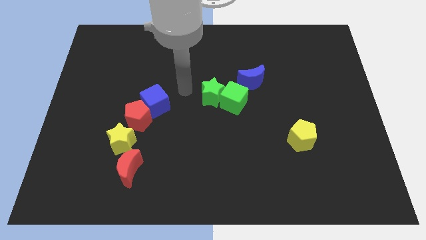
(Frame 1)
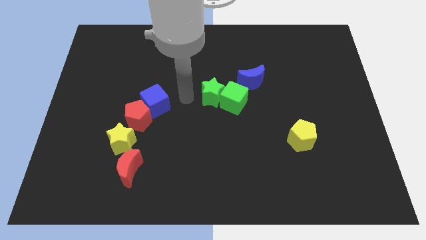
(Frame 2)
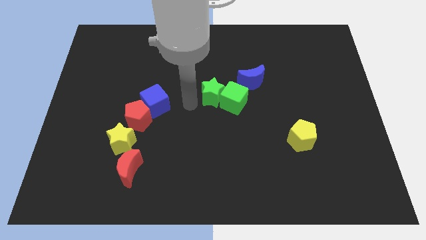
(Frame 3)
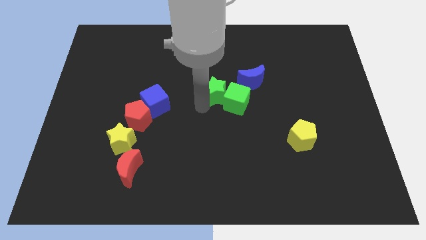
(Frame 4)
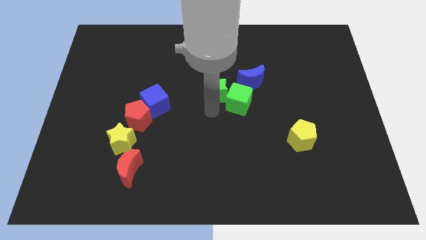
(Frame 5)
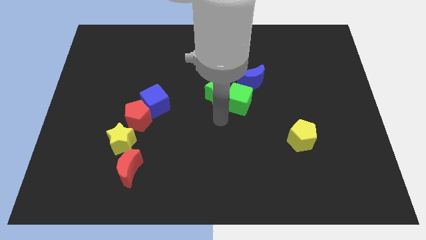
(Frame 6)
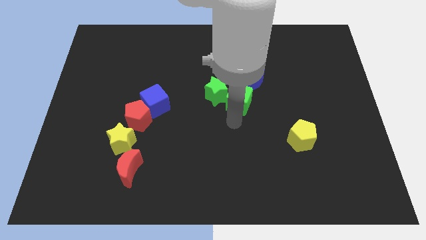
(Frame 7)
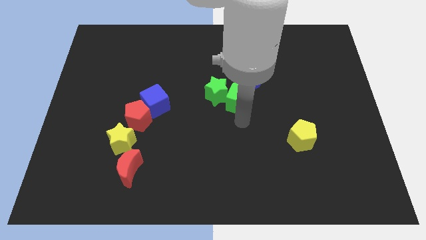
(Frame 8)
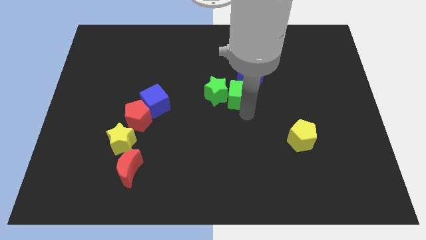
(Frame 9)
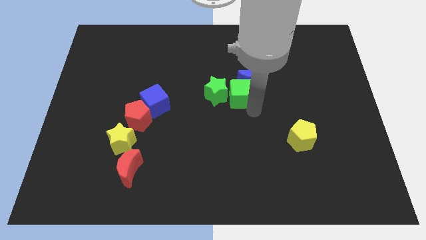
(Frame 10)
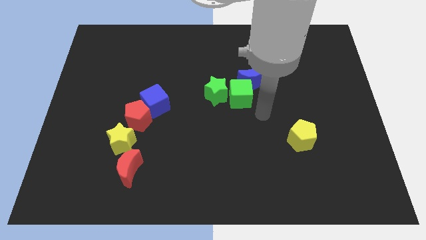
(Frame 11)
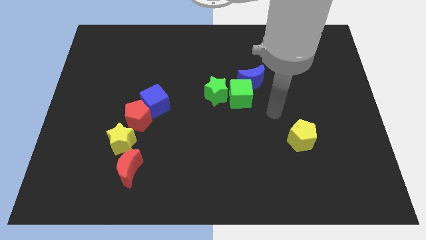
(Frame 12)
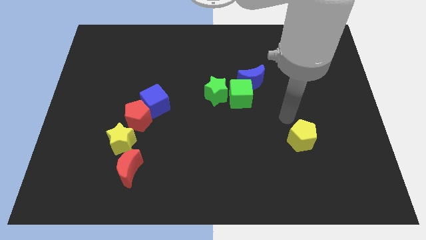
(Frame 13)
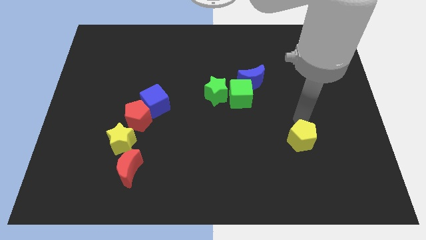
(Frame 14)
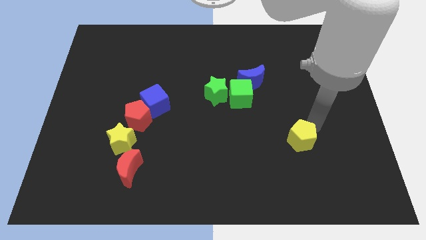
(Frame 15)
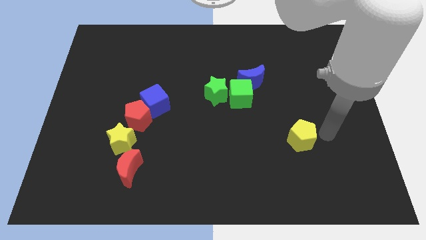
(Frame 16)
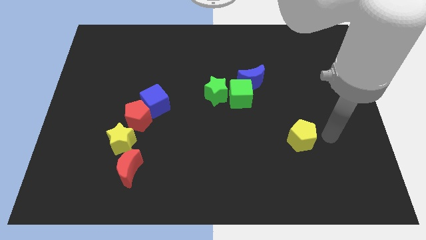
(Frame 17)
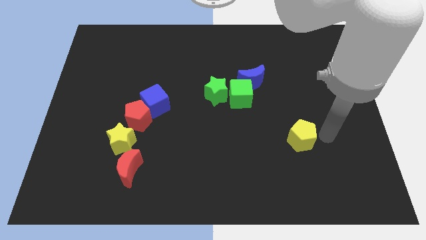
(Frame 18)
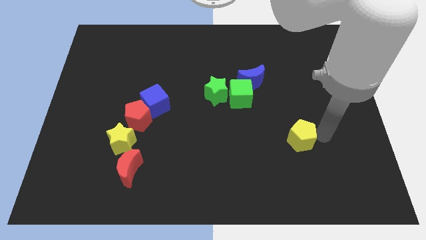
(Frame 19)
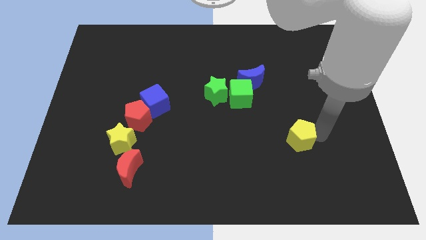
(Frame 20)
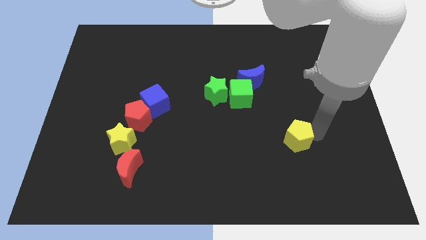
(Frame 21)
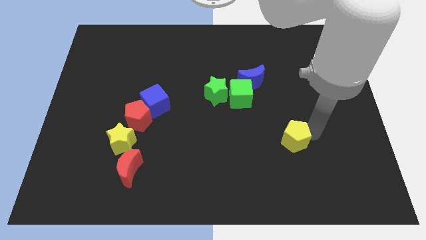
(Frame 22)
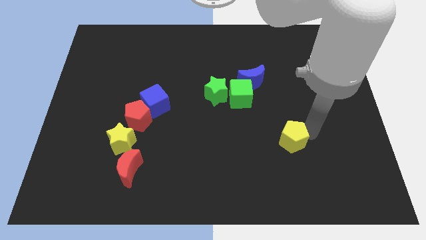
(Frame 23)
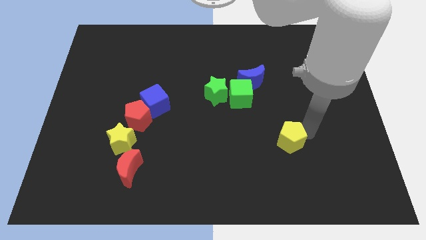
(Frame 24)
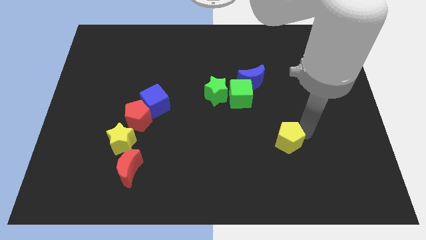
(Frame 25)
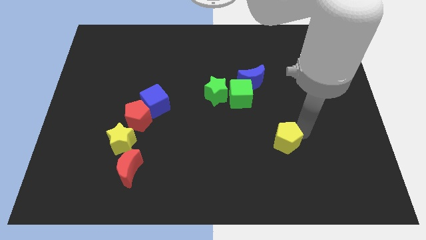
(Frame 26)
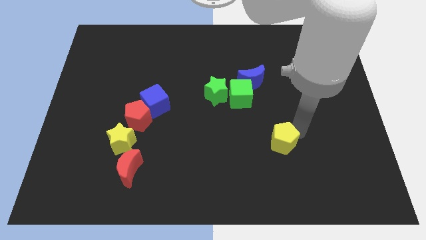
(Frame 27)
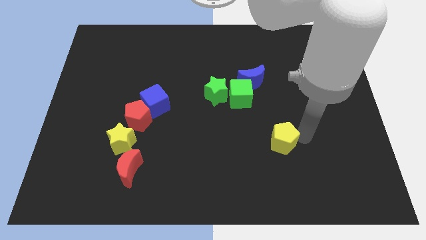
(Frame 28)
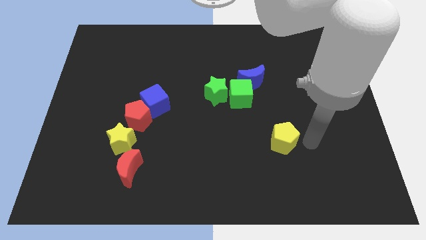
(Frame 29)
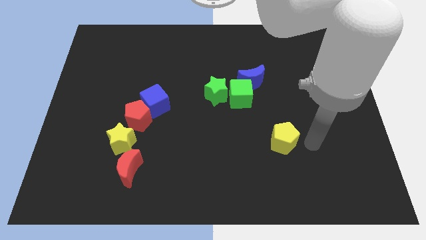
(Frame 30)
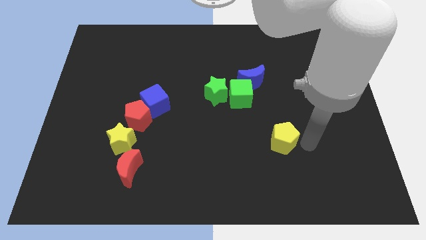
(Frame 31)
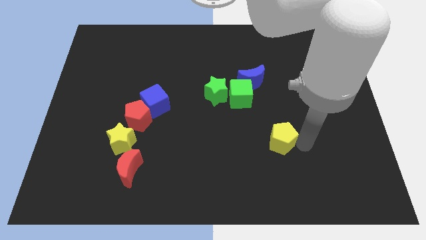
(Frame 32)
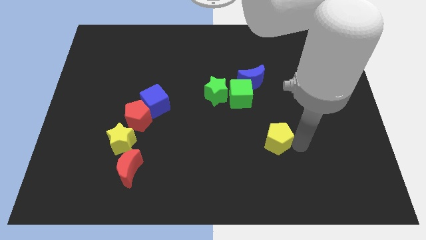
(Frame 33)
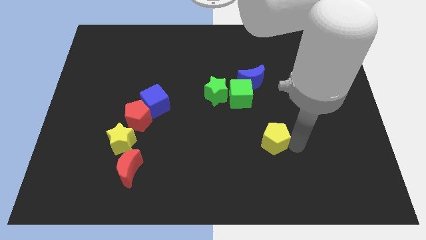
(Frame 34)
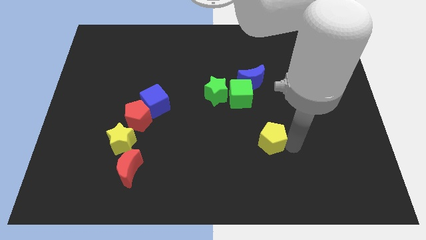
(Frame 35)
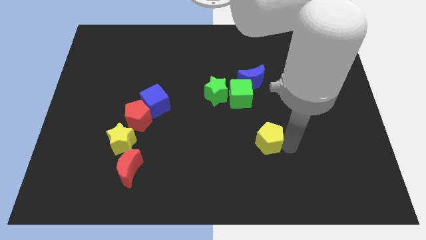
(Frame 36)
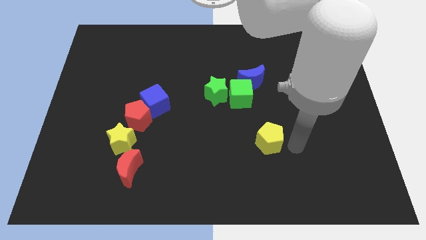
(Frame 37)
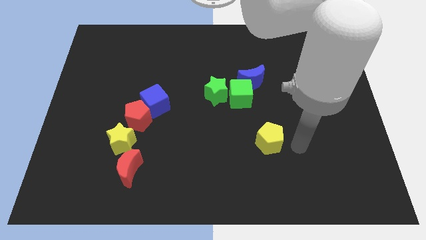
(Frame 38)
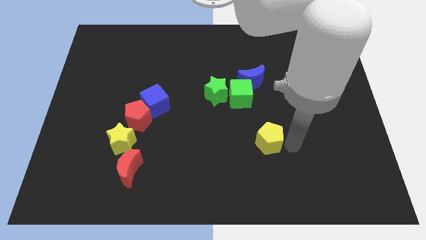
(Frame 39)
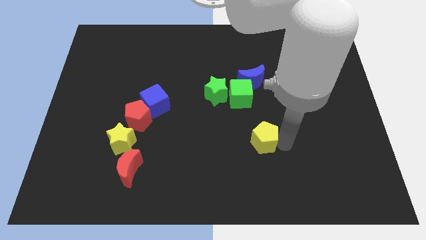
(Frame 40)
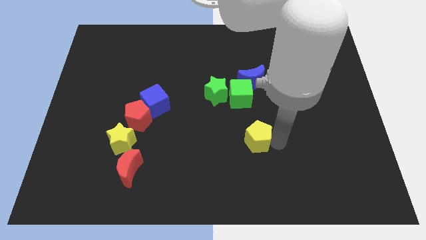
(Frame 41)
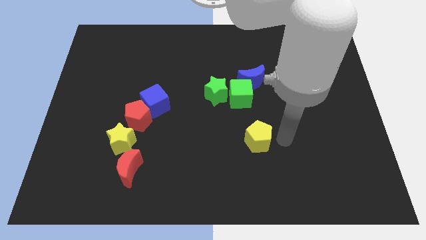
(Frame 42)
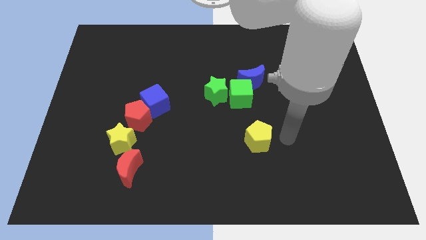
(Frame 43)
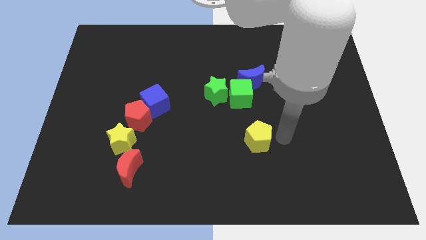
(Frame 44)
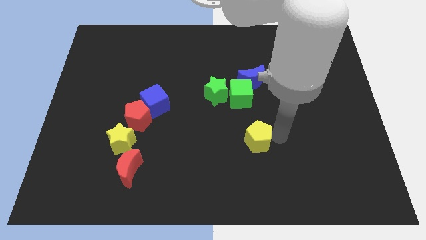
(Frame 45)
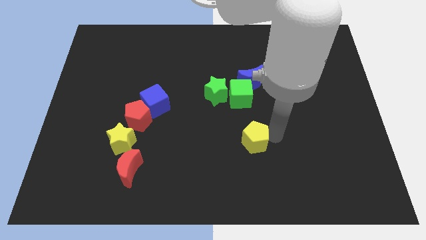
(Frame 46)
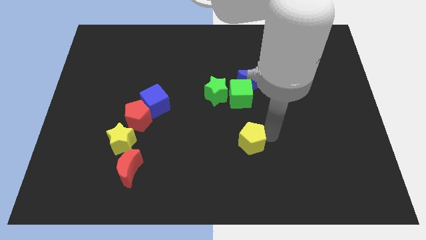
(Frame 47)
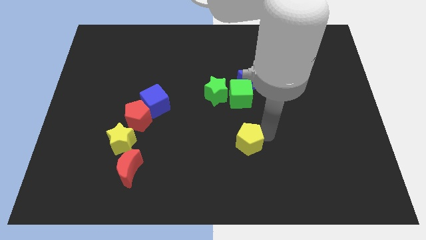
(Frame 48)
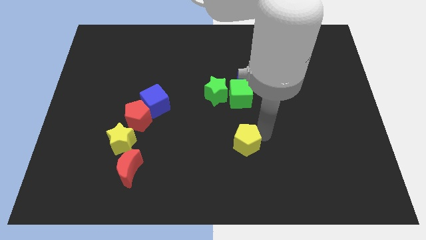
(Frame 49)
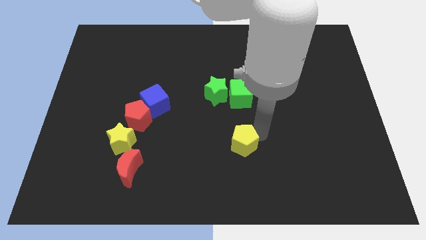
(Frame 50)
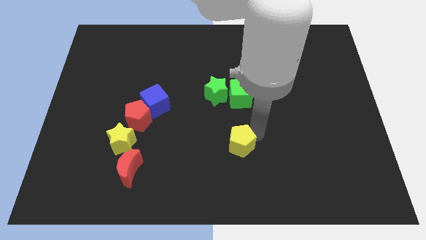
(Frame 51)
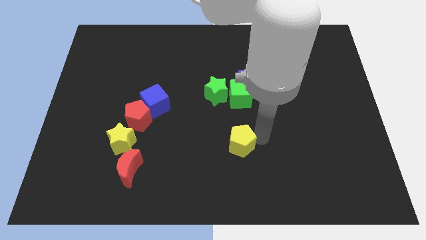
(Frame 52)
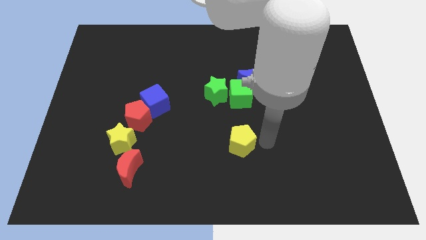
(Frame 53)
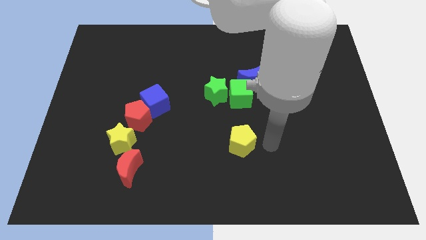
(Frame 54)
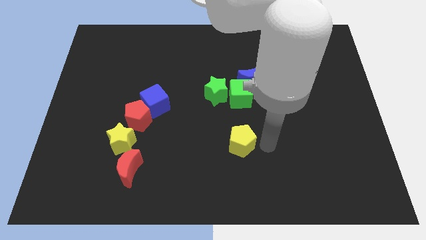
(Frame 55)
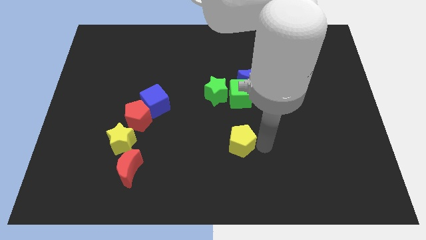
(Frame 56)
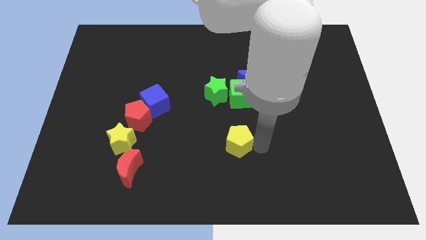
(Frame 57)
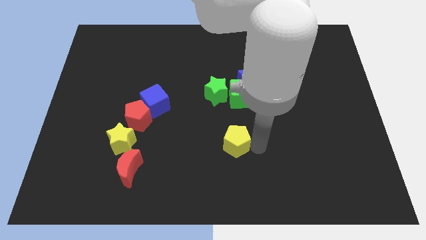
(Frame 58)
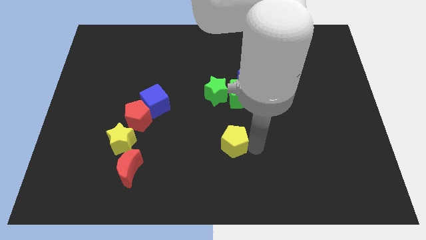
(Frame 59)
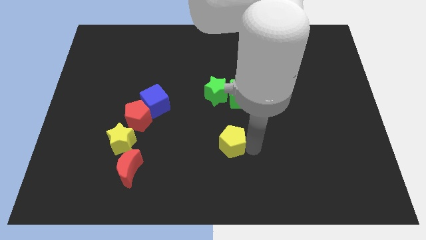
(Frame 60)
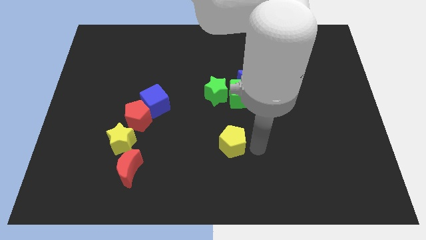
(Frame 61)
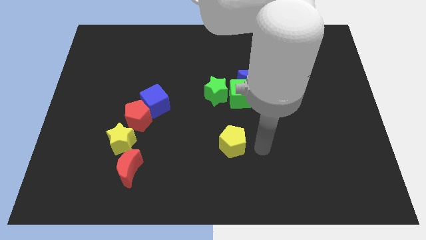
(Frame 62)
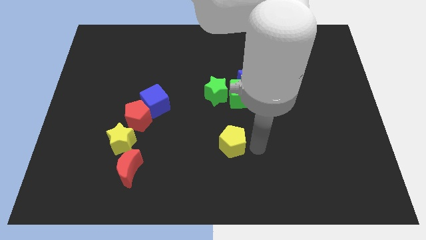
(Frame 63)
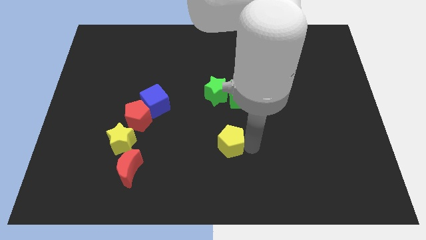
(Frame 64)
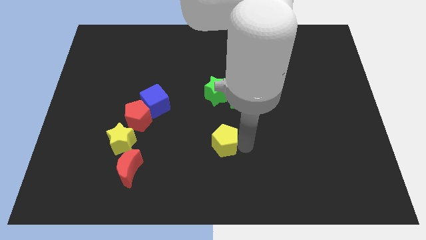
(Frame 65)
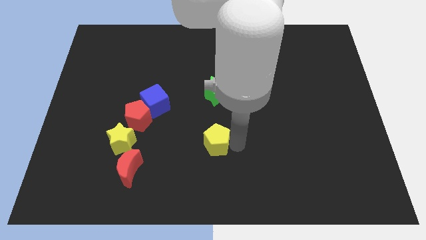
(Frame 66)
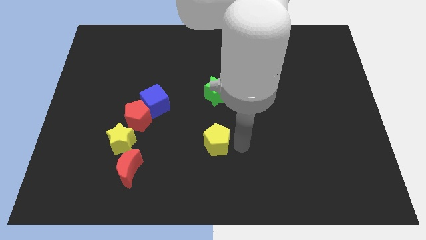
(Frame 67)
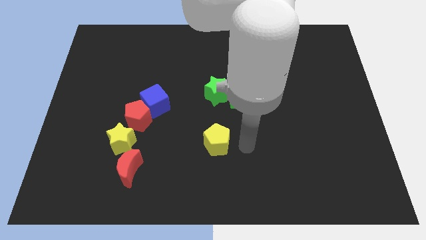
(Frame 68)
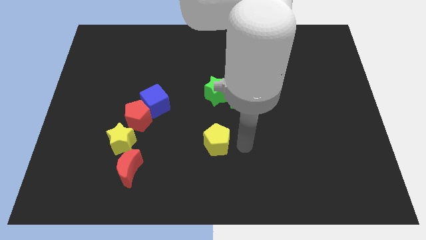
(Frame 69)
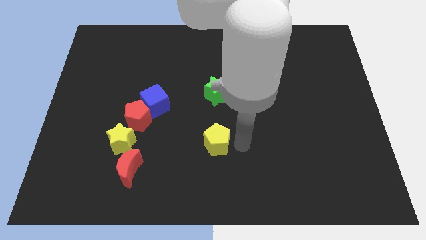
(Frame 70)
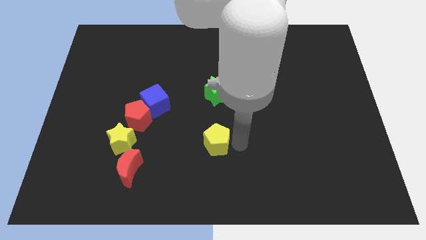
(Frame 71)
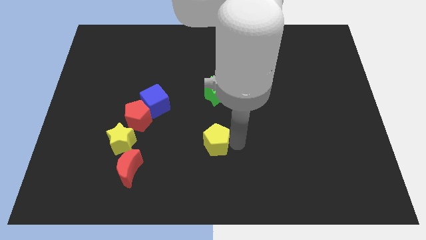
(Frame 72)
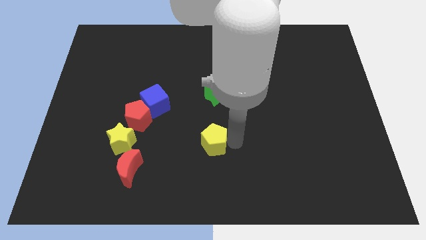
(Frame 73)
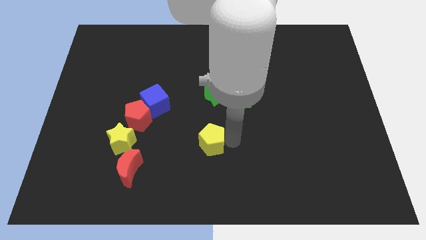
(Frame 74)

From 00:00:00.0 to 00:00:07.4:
slide the yellow pentagon to the left

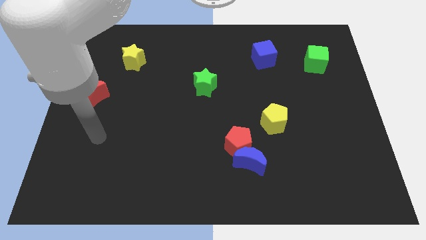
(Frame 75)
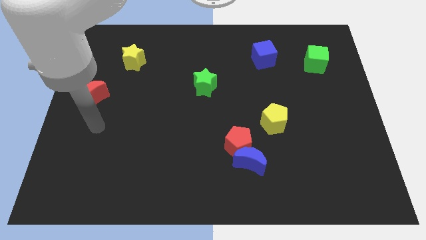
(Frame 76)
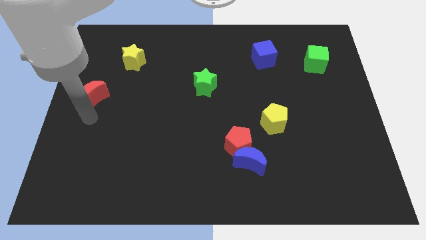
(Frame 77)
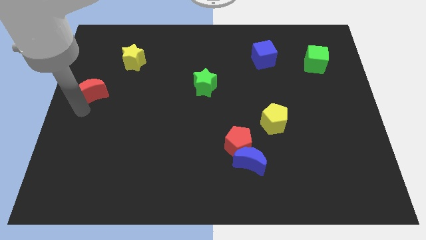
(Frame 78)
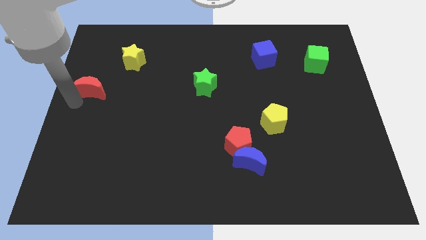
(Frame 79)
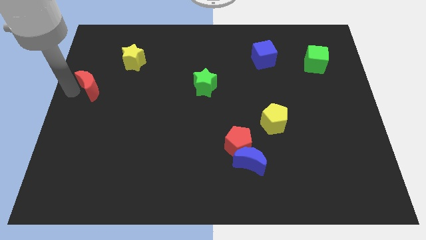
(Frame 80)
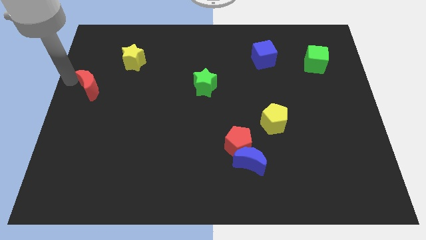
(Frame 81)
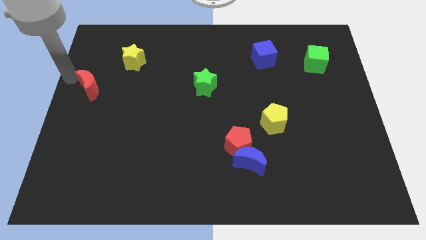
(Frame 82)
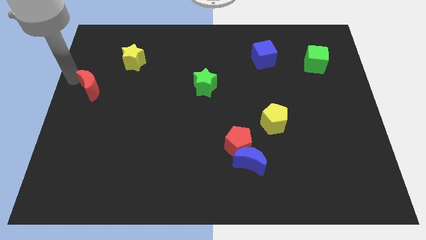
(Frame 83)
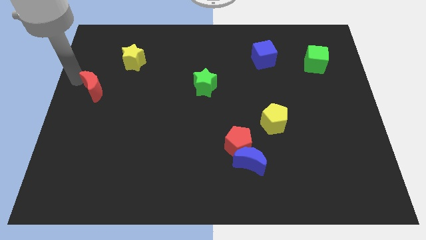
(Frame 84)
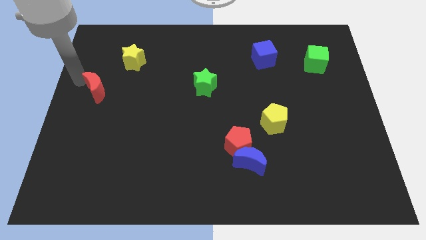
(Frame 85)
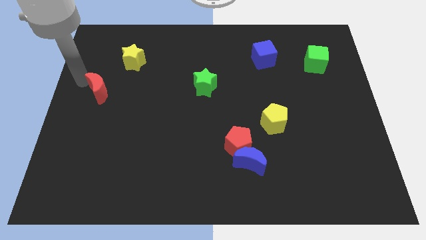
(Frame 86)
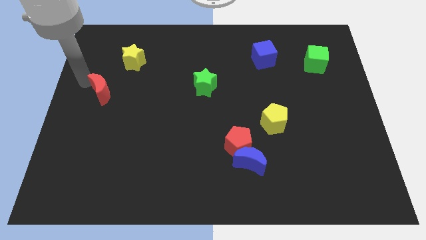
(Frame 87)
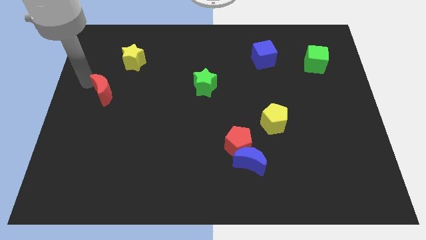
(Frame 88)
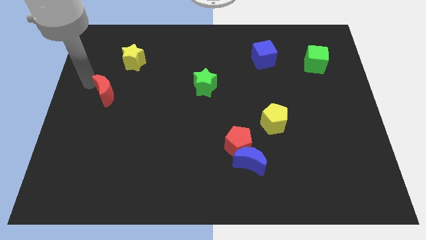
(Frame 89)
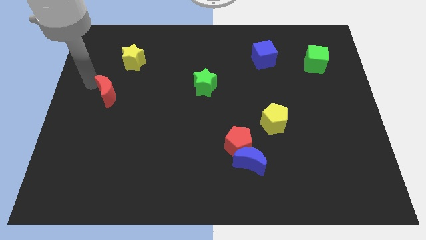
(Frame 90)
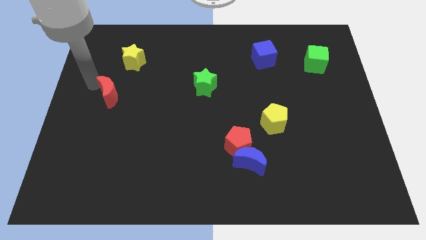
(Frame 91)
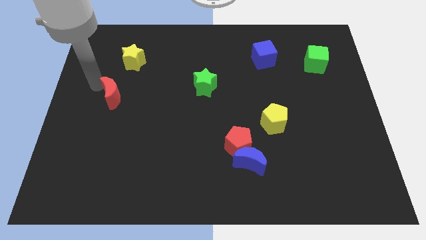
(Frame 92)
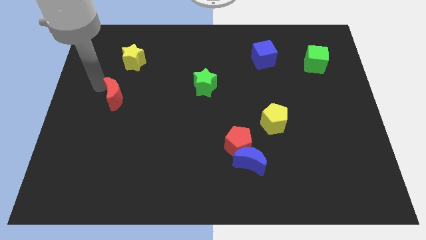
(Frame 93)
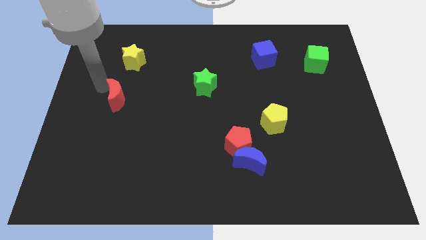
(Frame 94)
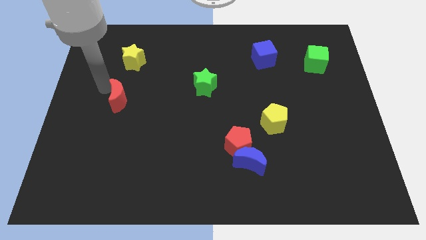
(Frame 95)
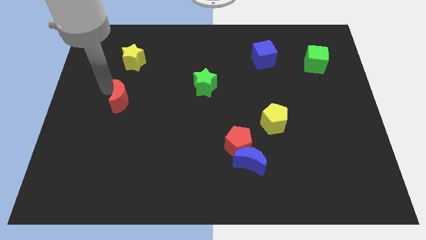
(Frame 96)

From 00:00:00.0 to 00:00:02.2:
move the red moon to the right a little
